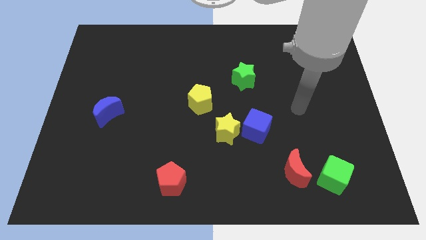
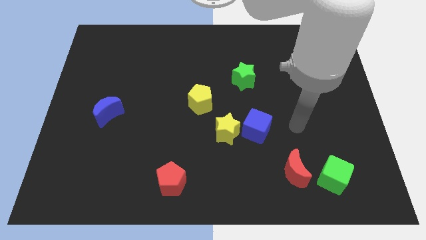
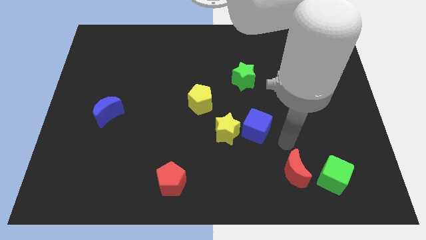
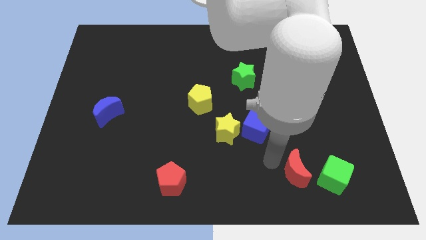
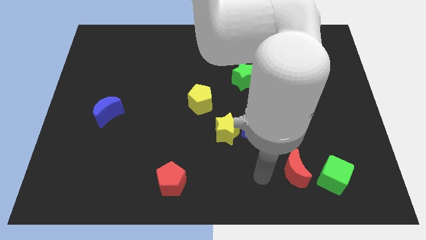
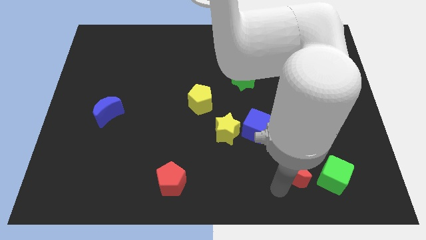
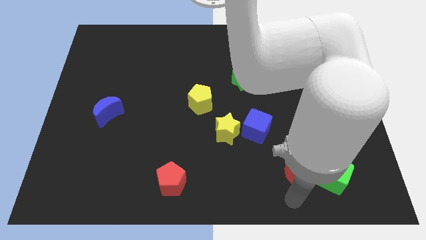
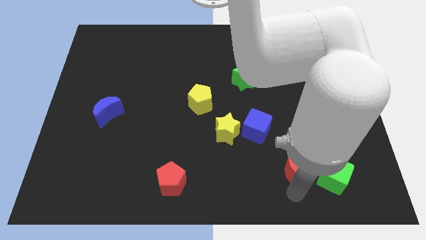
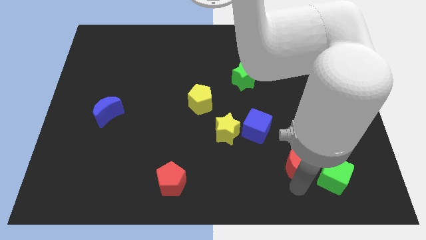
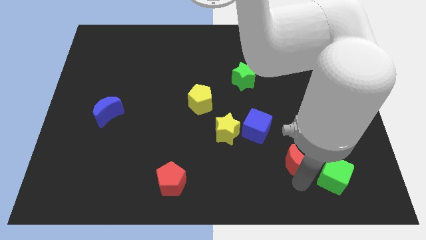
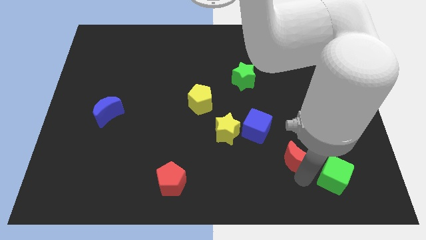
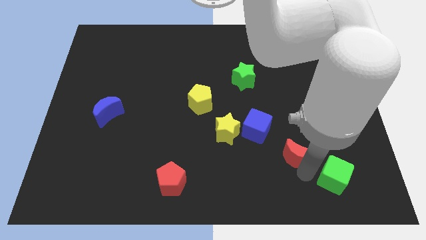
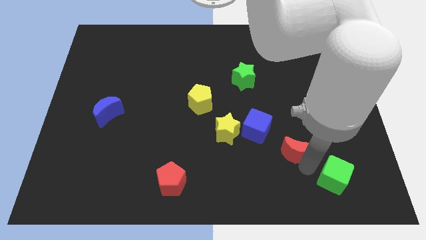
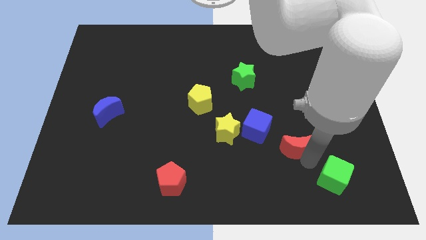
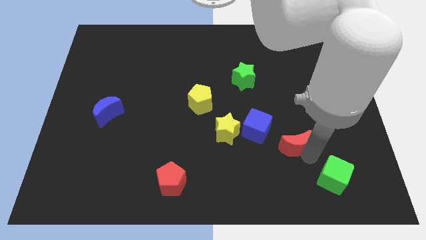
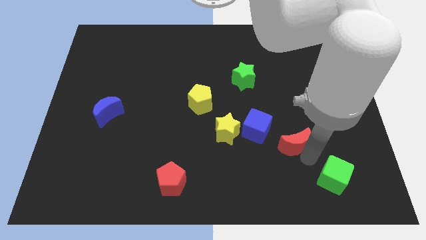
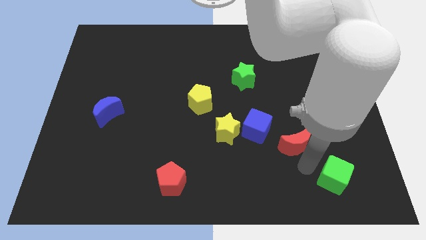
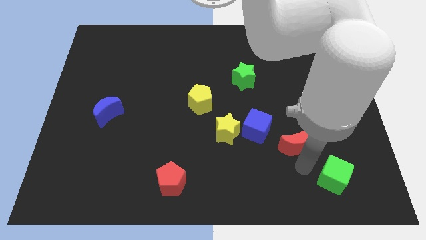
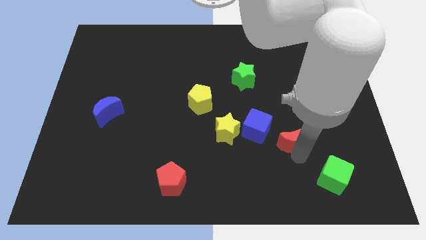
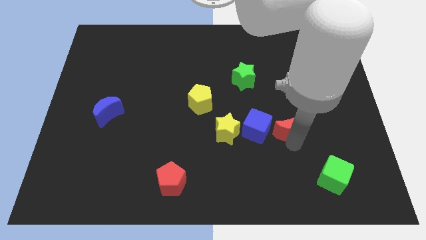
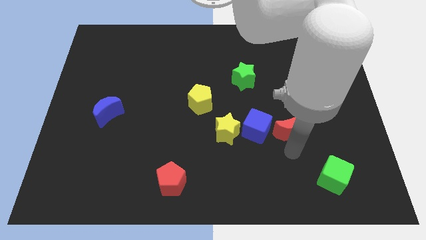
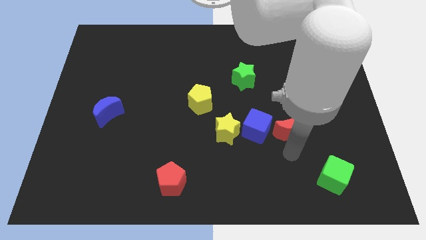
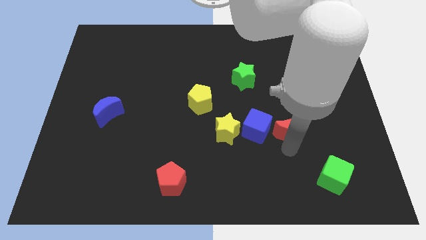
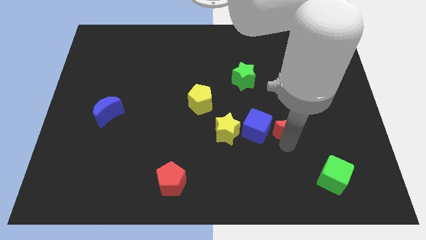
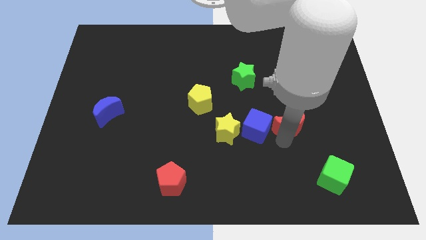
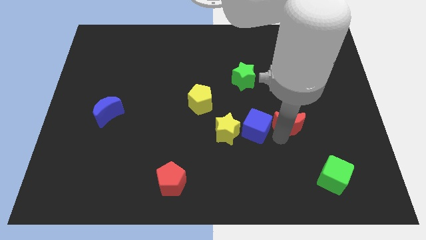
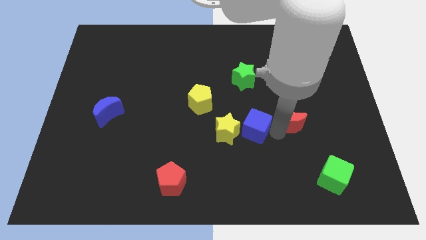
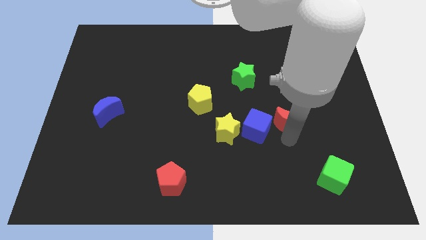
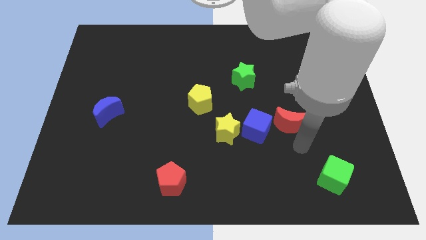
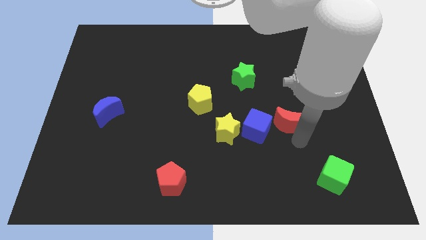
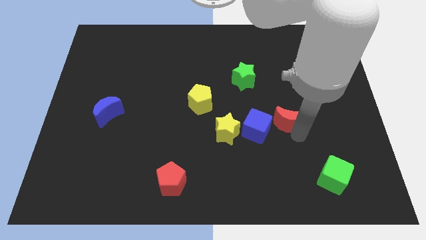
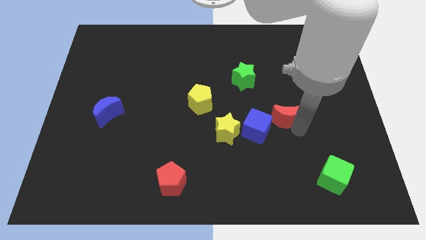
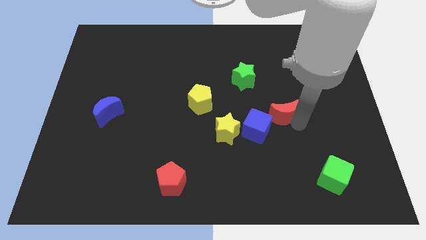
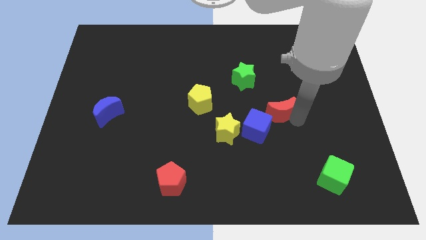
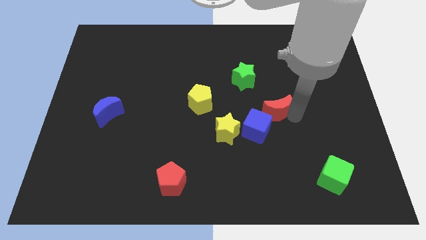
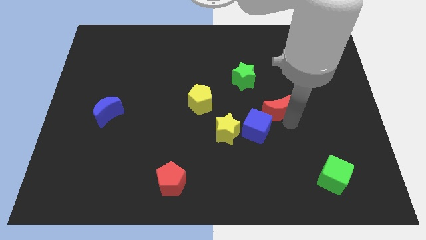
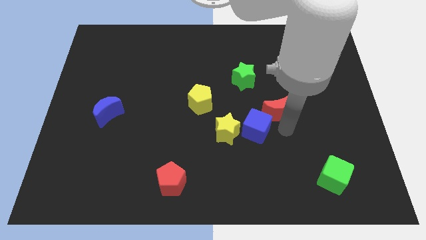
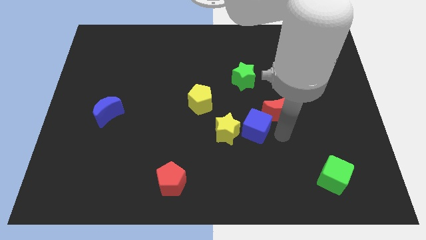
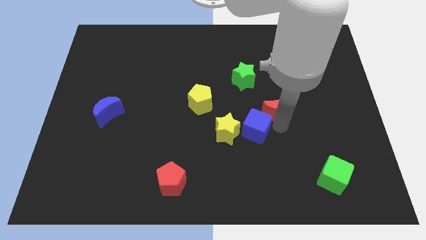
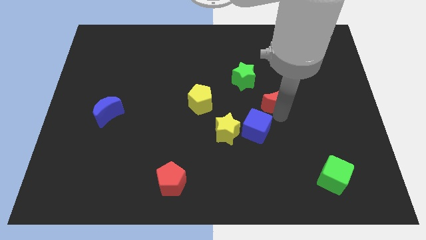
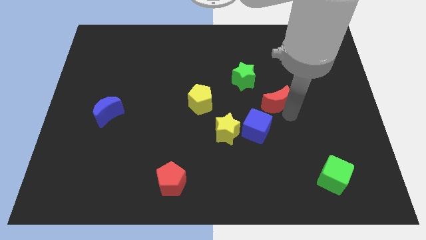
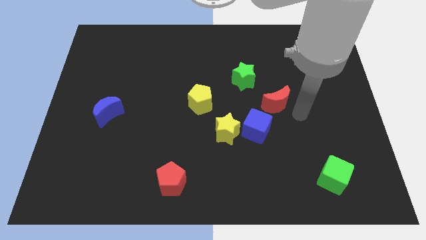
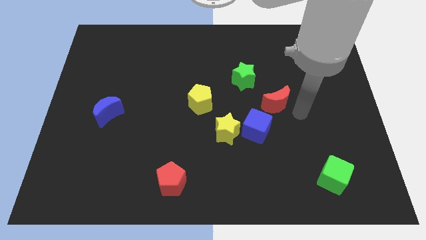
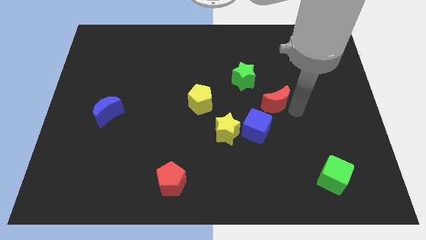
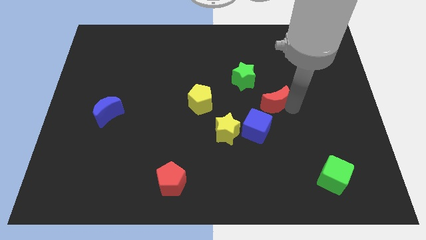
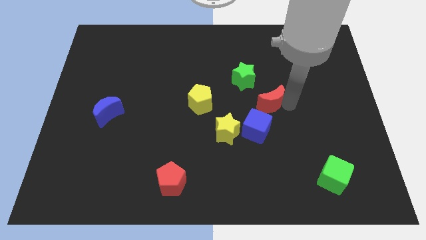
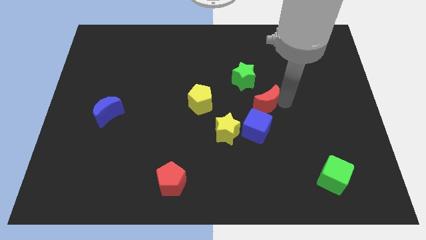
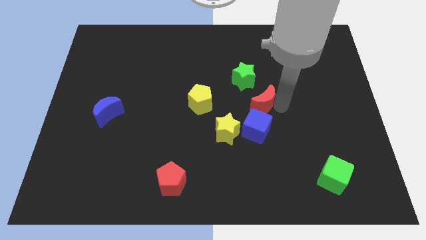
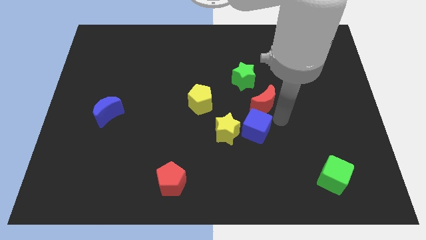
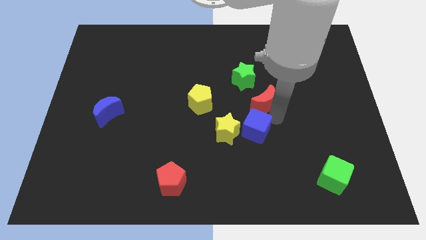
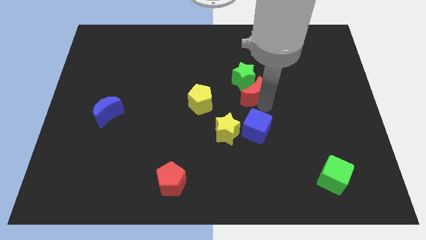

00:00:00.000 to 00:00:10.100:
push the red moon to the green star
